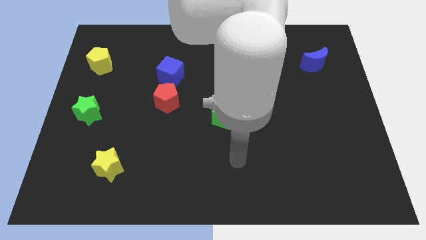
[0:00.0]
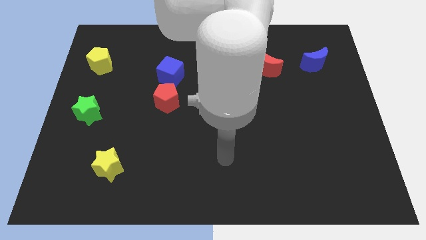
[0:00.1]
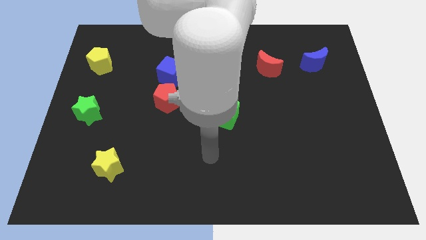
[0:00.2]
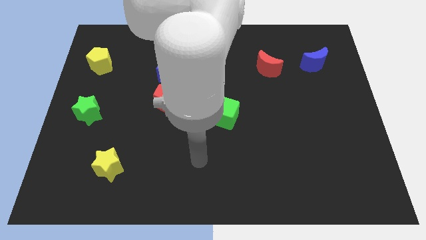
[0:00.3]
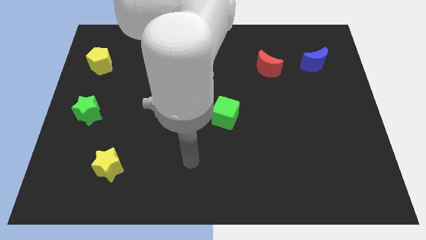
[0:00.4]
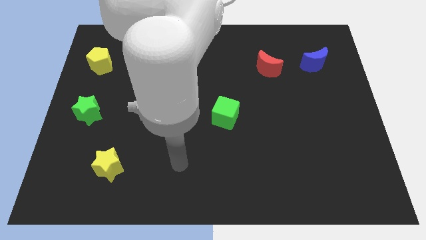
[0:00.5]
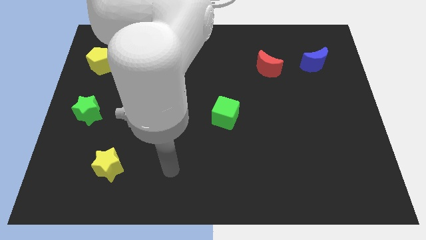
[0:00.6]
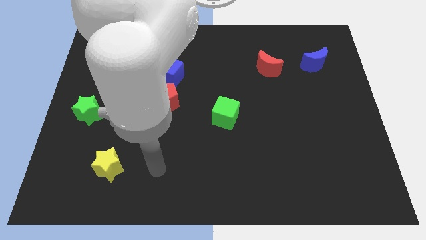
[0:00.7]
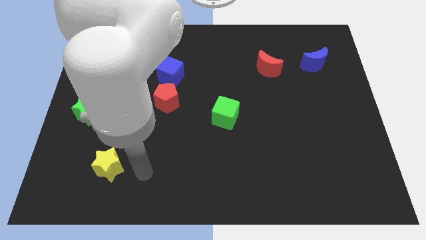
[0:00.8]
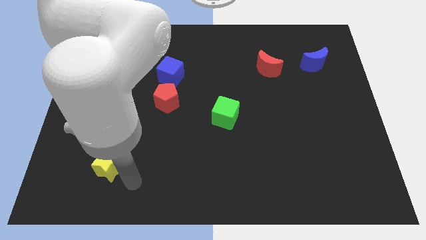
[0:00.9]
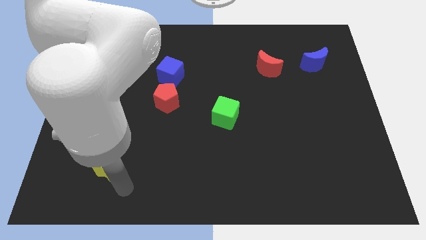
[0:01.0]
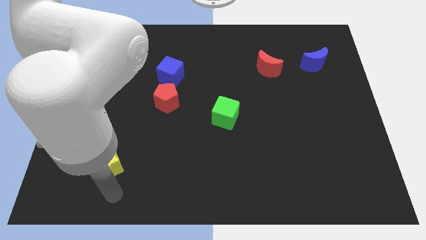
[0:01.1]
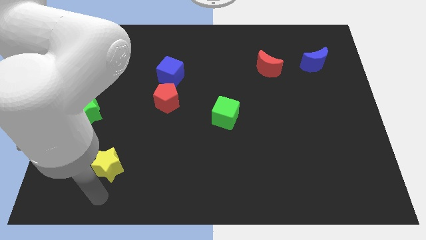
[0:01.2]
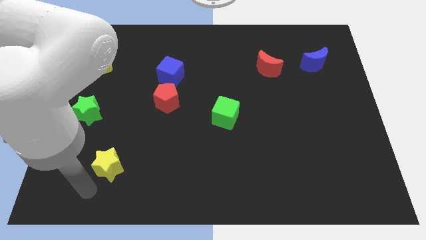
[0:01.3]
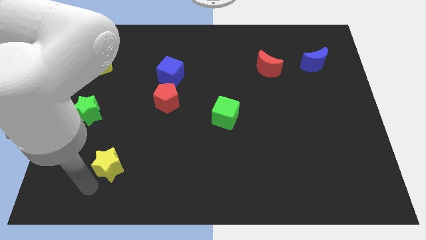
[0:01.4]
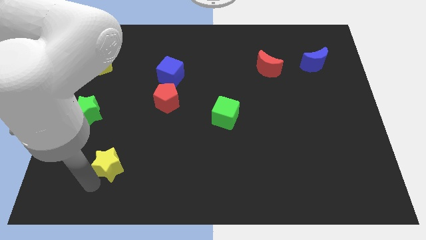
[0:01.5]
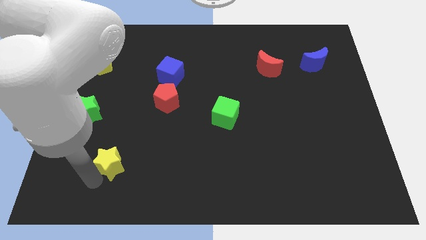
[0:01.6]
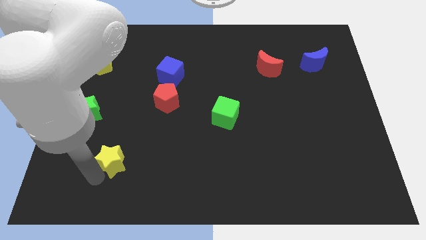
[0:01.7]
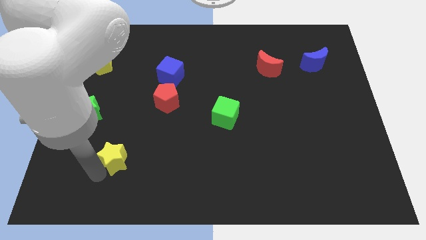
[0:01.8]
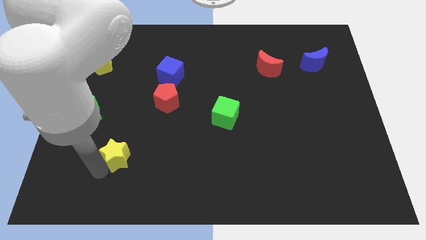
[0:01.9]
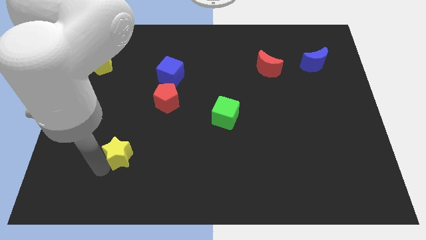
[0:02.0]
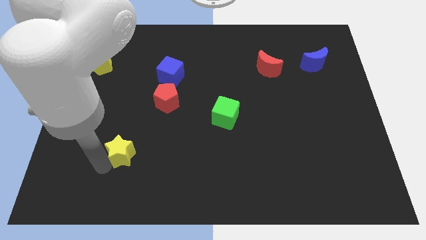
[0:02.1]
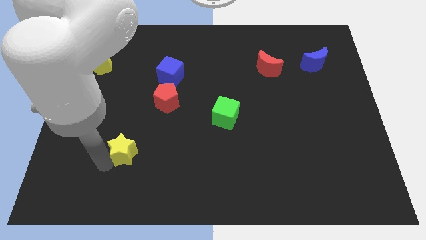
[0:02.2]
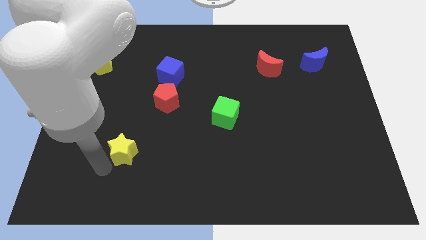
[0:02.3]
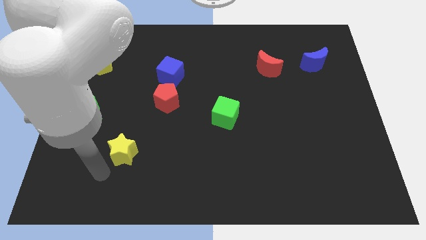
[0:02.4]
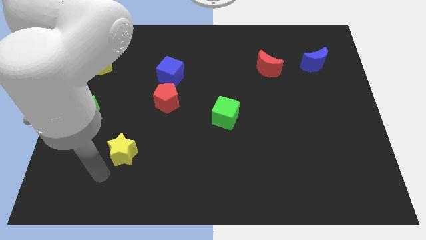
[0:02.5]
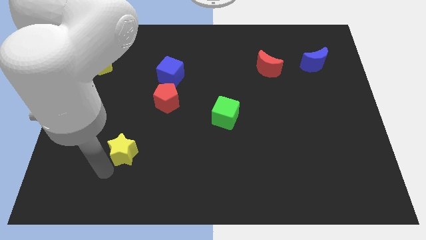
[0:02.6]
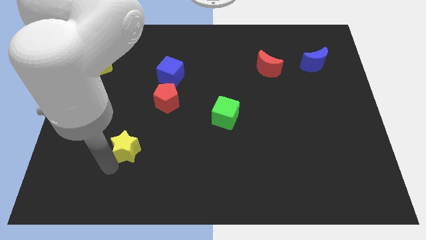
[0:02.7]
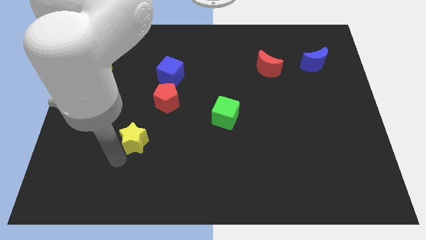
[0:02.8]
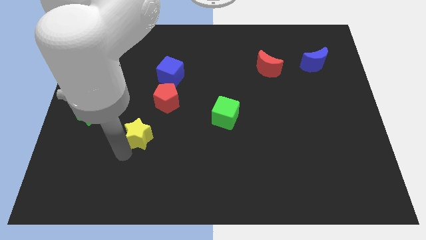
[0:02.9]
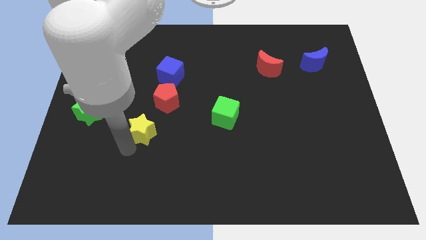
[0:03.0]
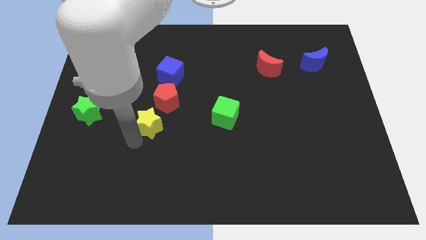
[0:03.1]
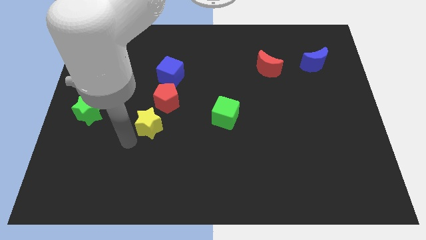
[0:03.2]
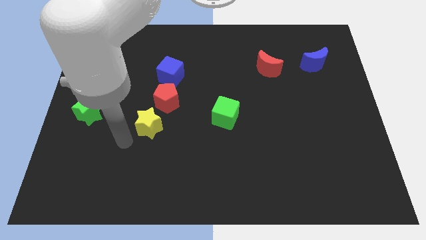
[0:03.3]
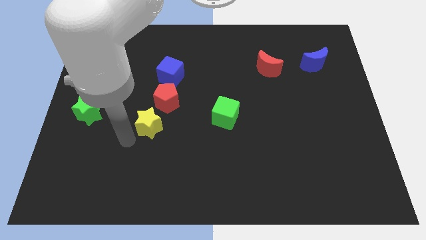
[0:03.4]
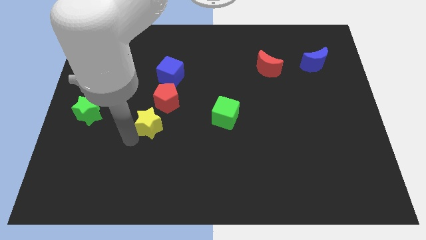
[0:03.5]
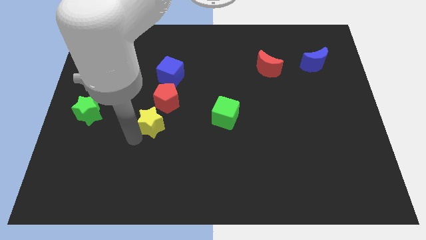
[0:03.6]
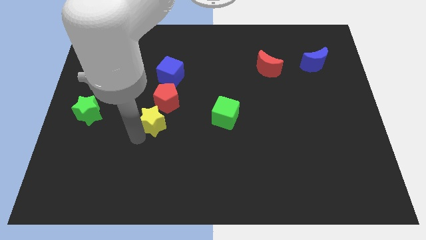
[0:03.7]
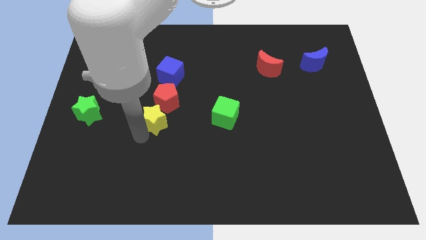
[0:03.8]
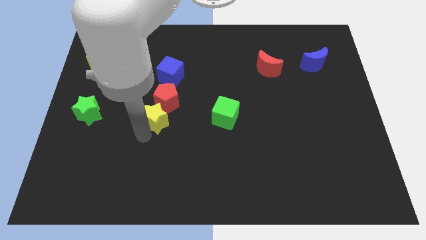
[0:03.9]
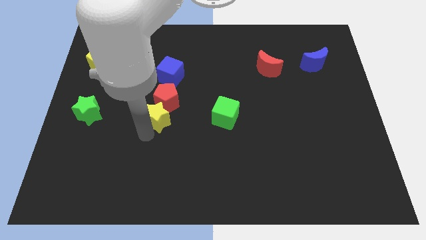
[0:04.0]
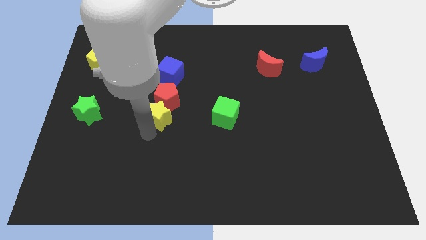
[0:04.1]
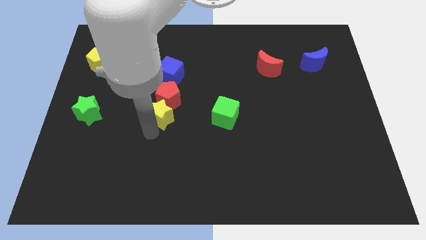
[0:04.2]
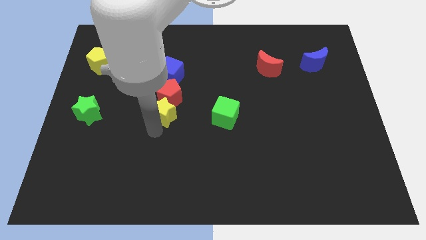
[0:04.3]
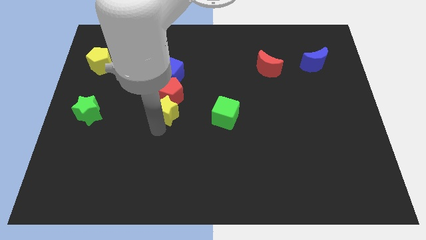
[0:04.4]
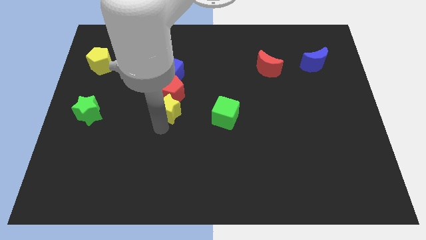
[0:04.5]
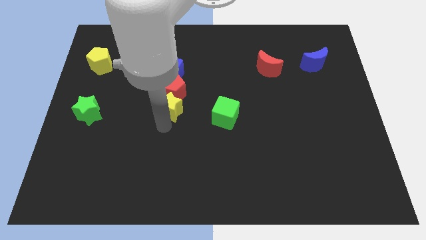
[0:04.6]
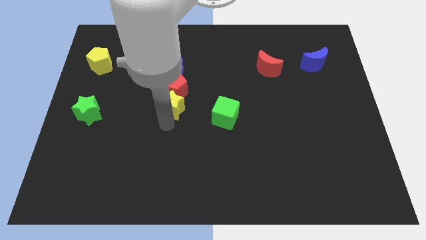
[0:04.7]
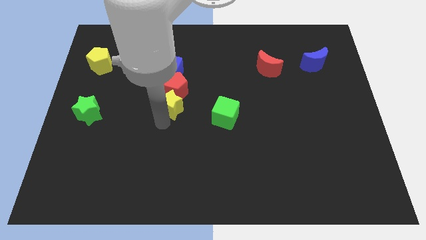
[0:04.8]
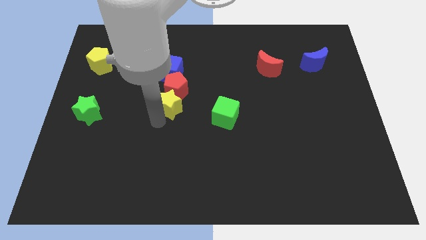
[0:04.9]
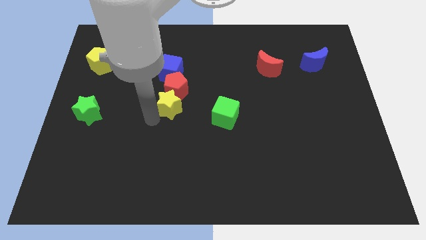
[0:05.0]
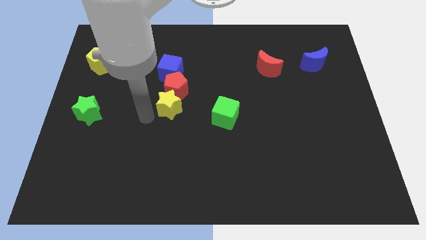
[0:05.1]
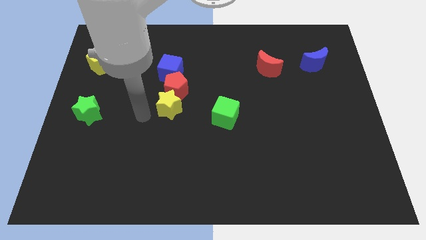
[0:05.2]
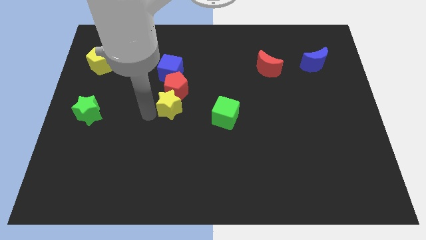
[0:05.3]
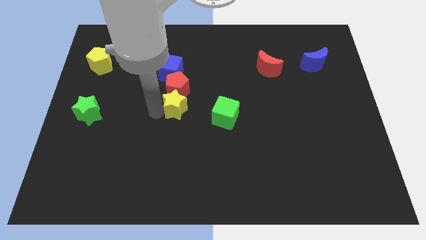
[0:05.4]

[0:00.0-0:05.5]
push the yellow star up and to the right diagonally

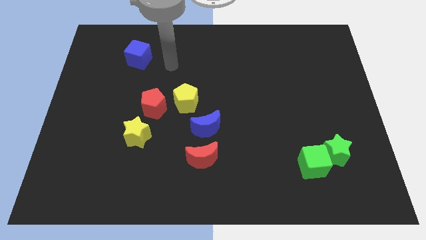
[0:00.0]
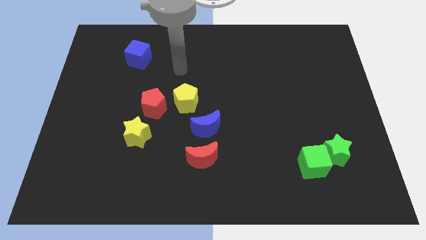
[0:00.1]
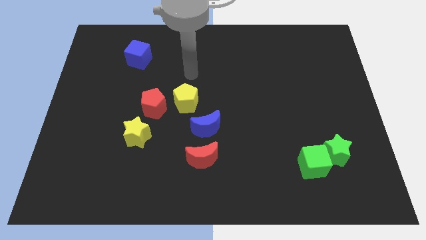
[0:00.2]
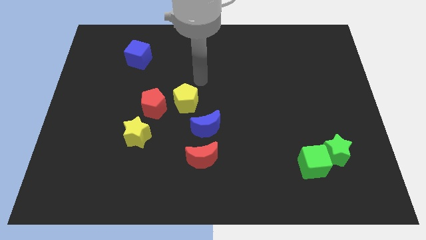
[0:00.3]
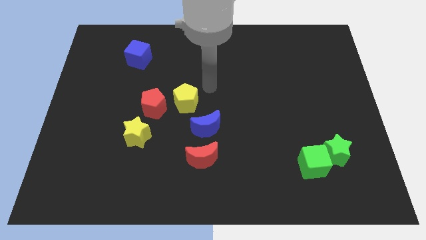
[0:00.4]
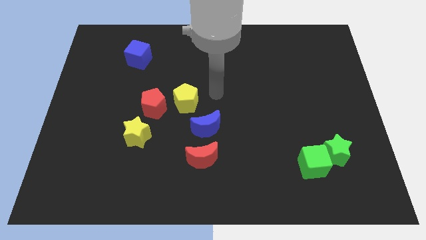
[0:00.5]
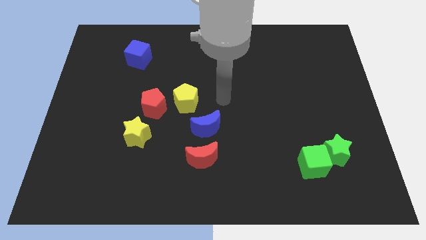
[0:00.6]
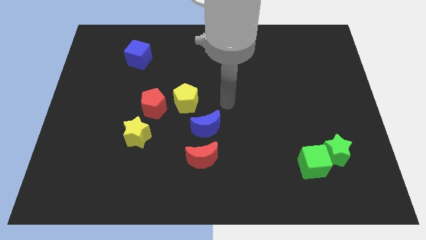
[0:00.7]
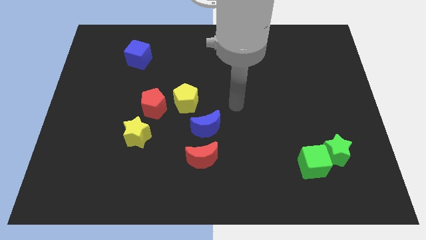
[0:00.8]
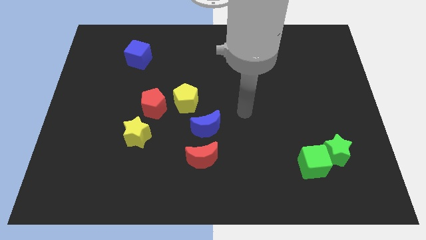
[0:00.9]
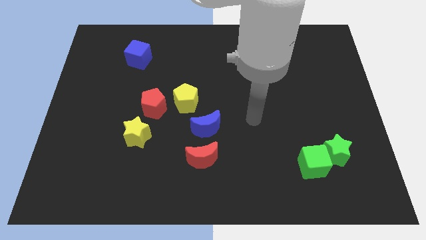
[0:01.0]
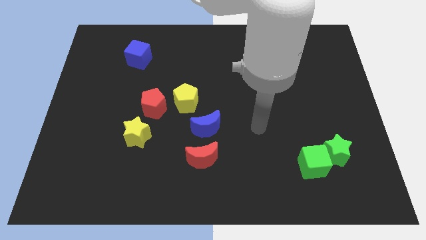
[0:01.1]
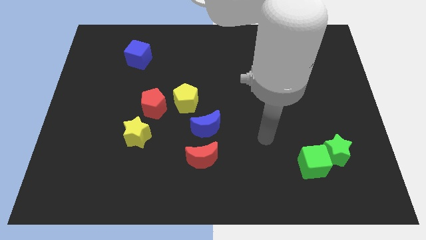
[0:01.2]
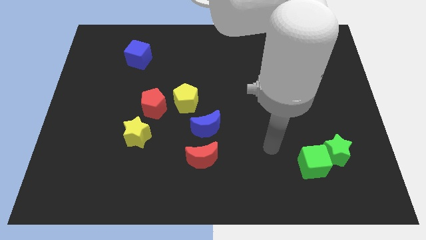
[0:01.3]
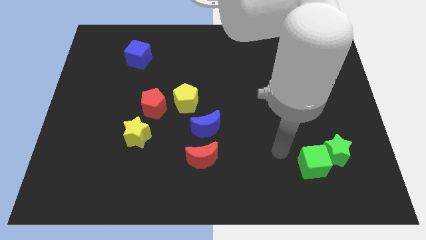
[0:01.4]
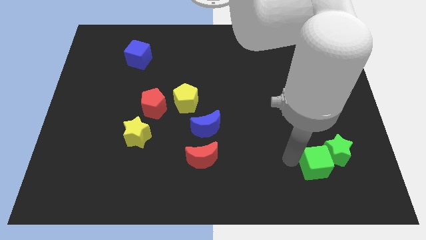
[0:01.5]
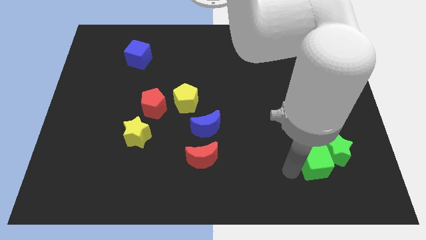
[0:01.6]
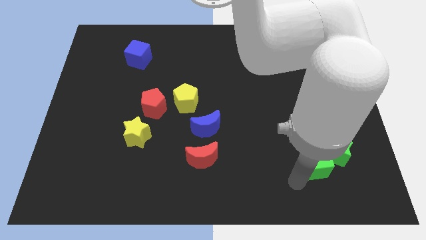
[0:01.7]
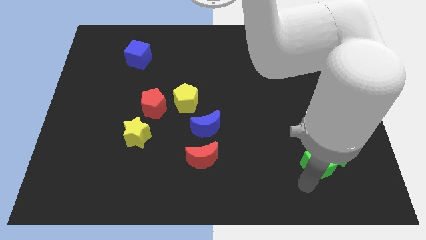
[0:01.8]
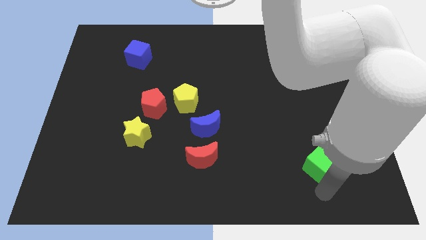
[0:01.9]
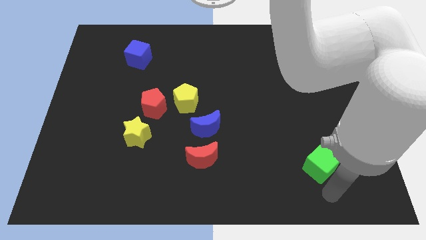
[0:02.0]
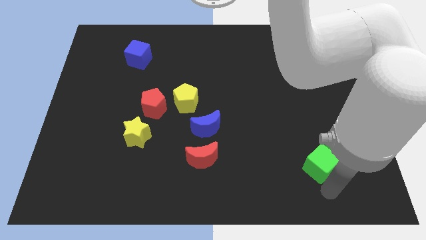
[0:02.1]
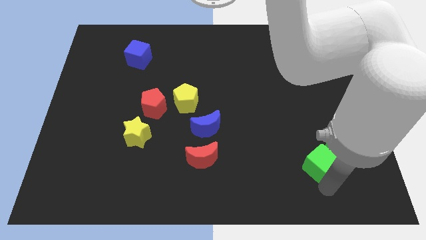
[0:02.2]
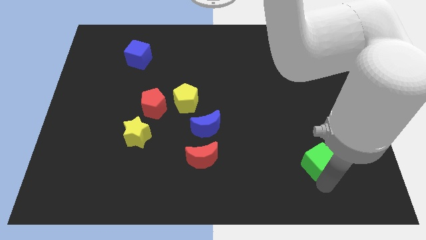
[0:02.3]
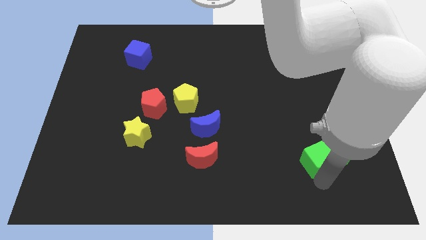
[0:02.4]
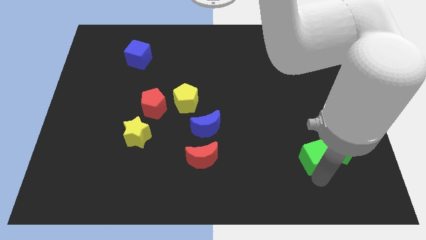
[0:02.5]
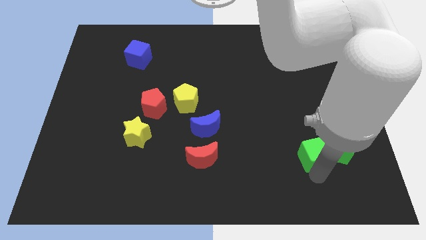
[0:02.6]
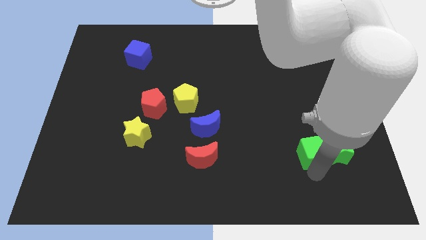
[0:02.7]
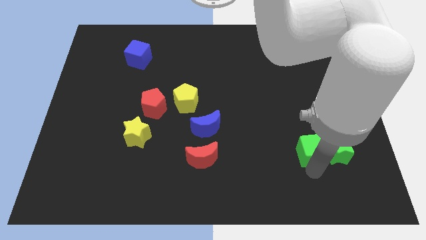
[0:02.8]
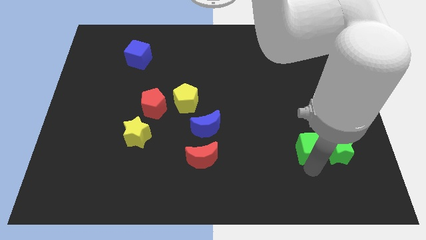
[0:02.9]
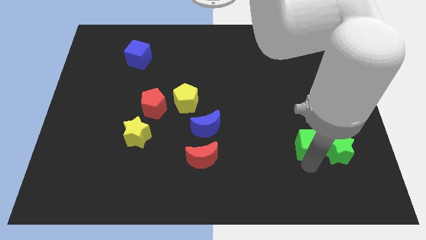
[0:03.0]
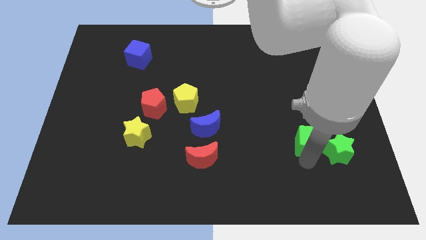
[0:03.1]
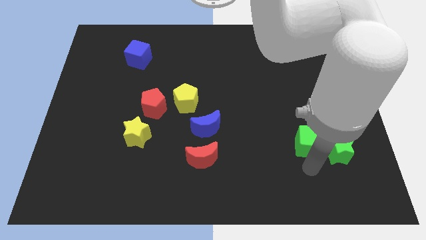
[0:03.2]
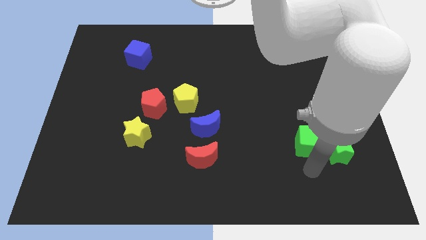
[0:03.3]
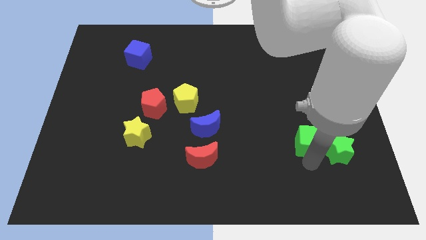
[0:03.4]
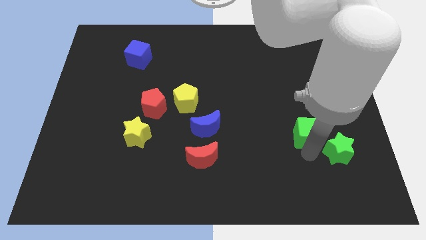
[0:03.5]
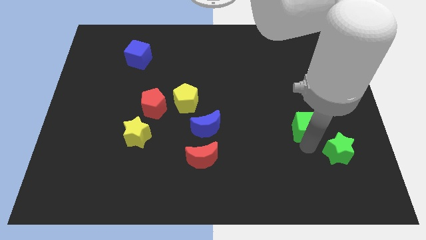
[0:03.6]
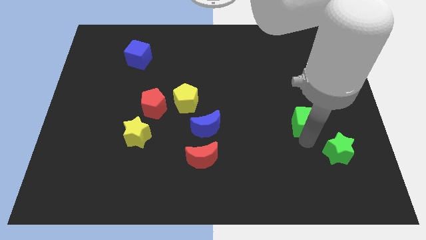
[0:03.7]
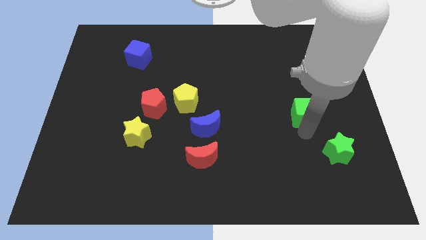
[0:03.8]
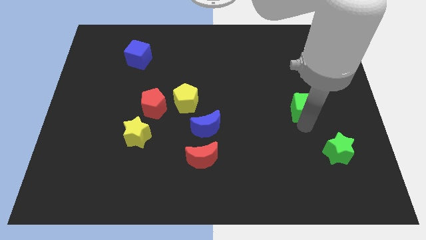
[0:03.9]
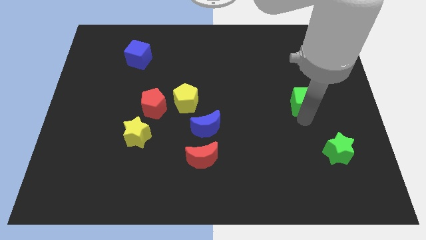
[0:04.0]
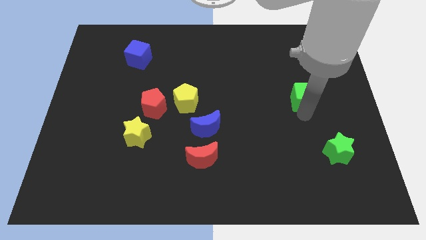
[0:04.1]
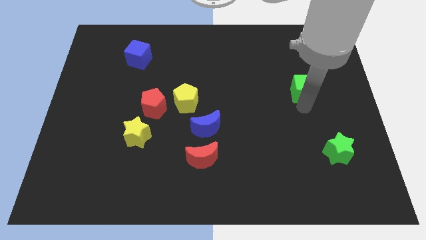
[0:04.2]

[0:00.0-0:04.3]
move the green cube upwards
